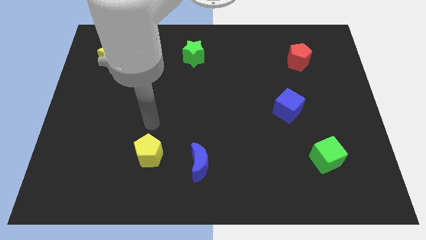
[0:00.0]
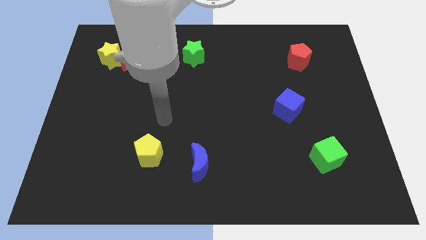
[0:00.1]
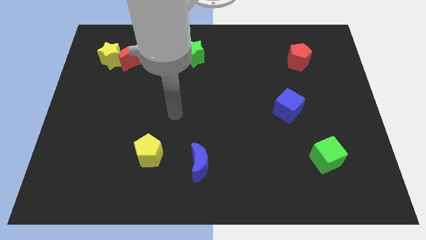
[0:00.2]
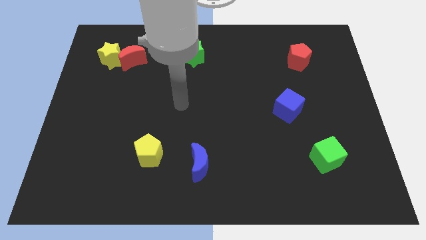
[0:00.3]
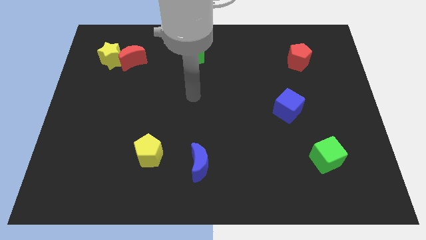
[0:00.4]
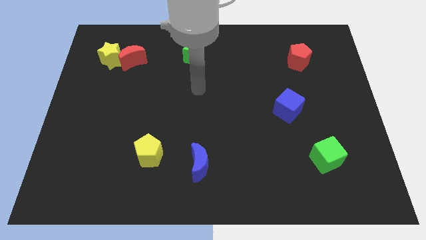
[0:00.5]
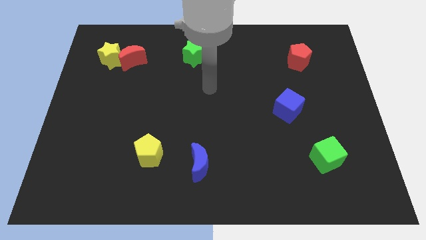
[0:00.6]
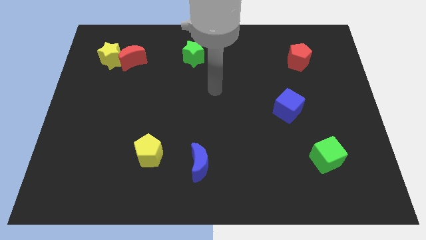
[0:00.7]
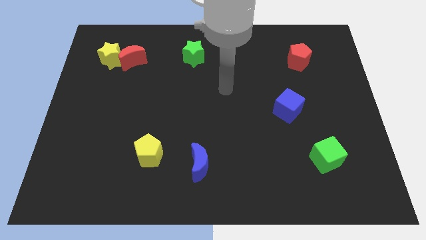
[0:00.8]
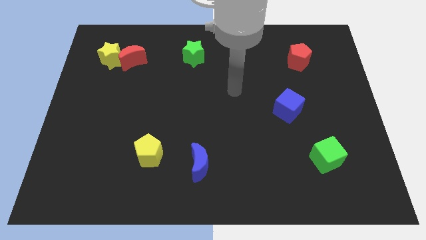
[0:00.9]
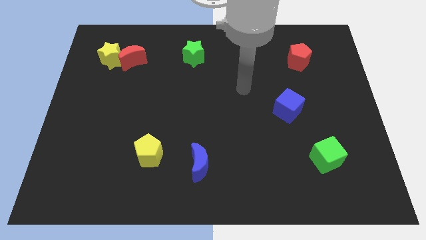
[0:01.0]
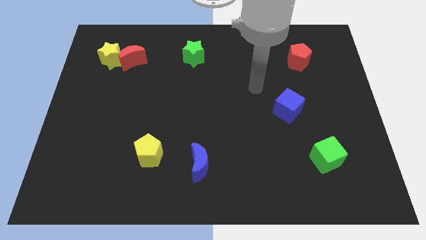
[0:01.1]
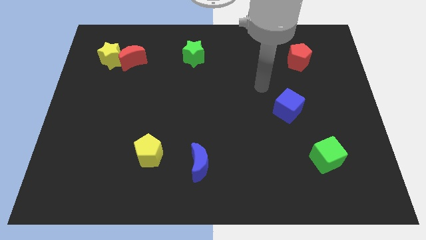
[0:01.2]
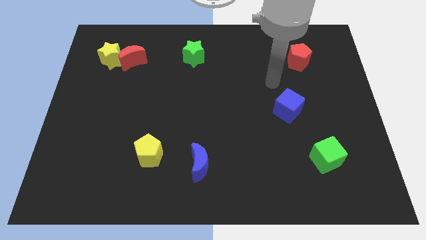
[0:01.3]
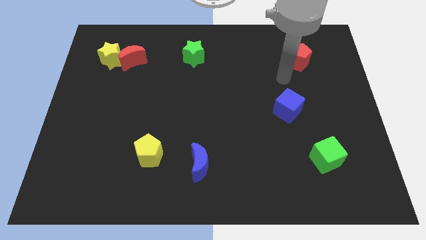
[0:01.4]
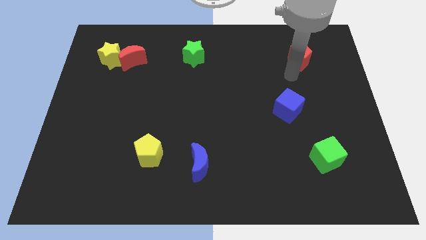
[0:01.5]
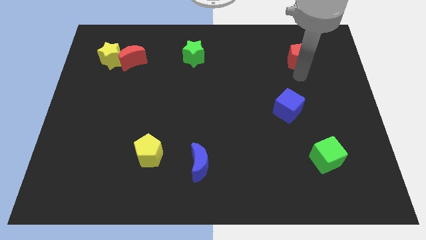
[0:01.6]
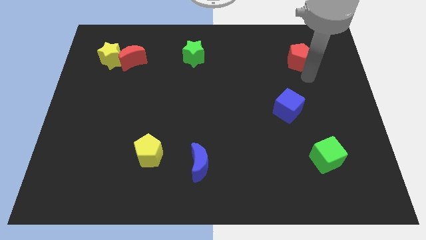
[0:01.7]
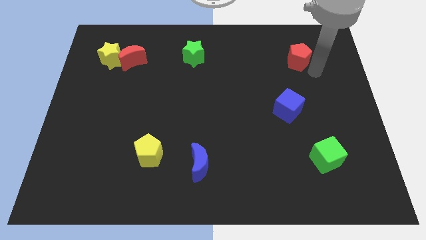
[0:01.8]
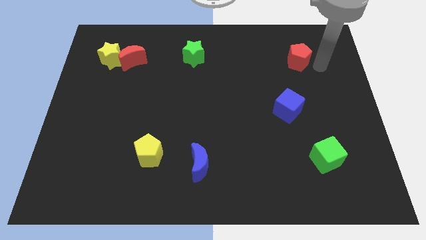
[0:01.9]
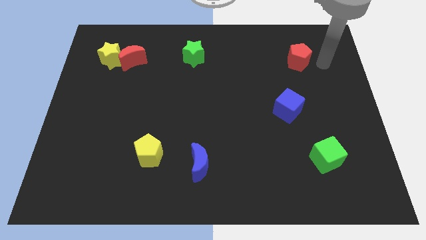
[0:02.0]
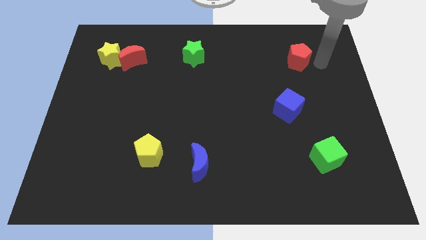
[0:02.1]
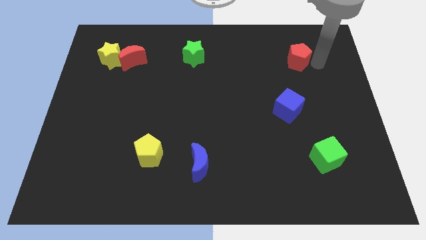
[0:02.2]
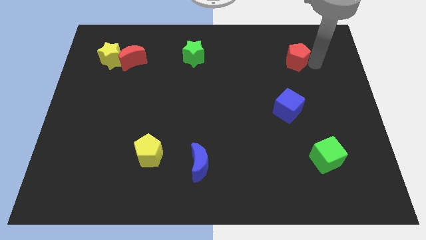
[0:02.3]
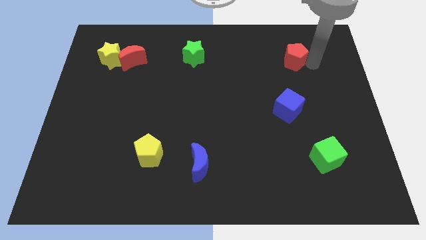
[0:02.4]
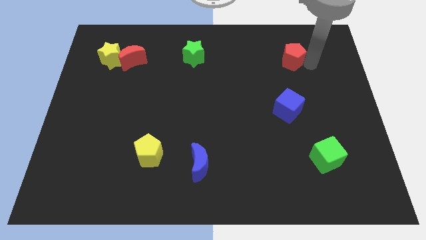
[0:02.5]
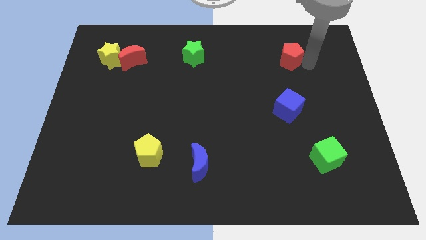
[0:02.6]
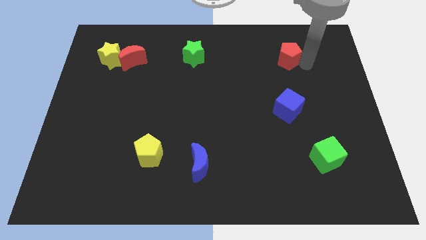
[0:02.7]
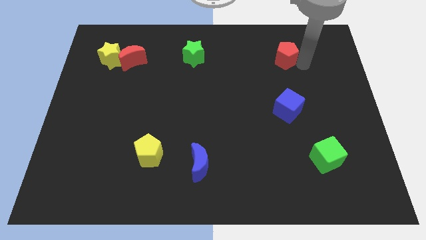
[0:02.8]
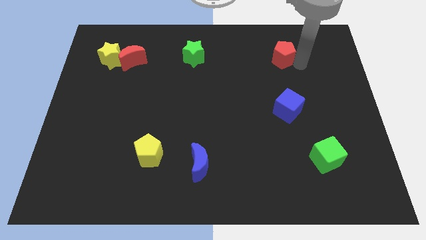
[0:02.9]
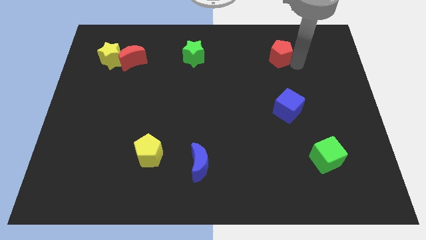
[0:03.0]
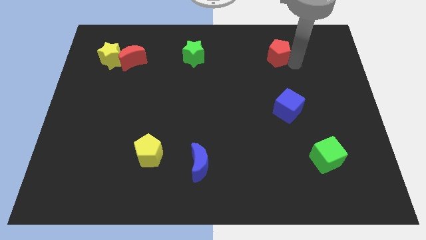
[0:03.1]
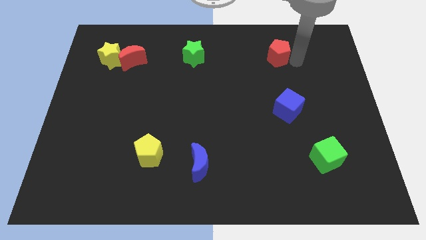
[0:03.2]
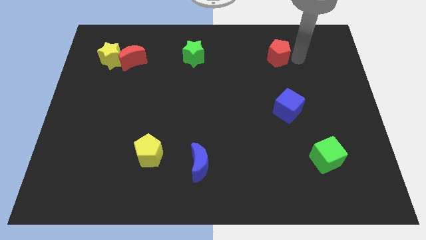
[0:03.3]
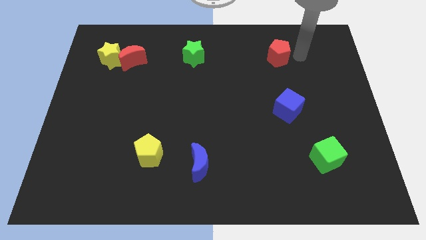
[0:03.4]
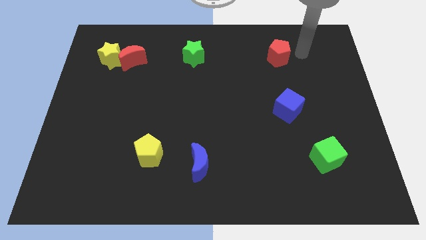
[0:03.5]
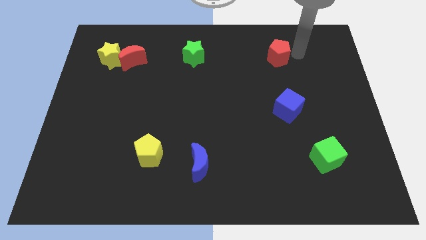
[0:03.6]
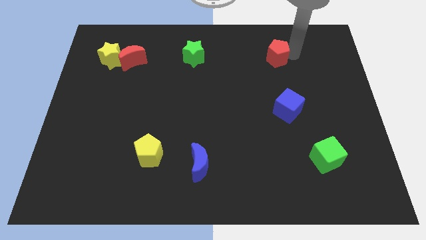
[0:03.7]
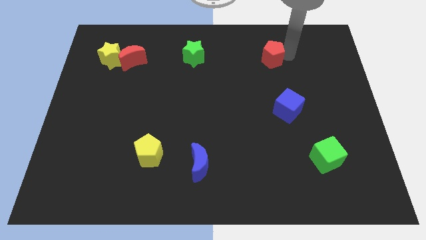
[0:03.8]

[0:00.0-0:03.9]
slightly push the red pentagon to the left

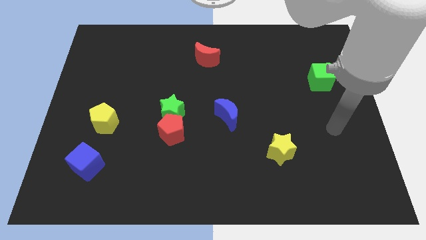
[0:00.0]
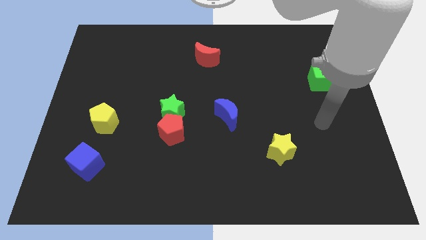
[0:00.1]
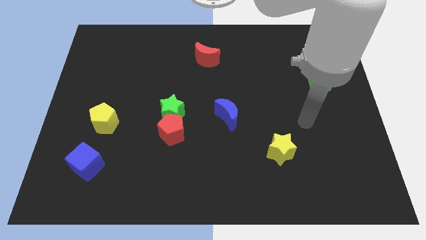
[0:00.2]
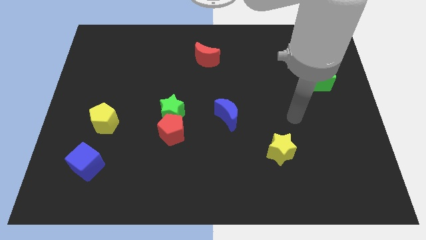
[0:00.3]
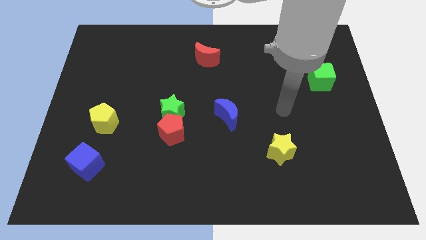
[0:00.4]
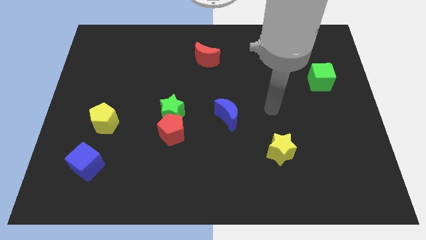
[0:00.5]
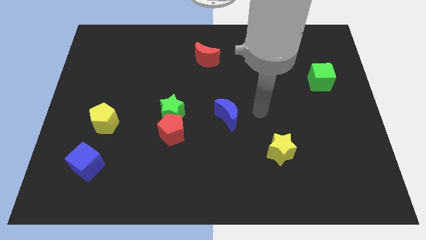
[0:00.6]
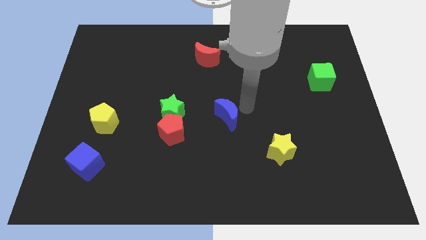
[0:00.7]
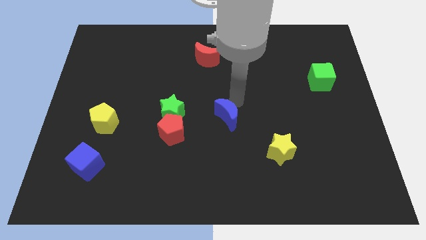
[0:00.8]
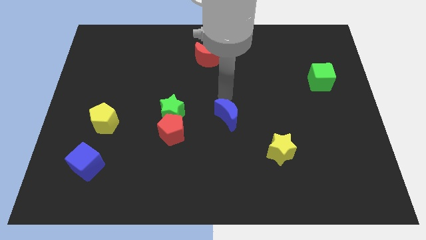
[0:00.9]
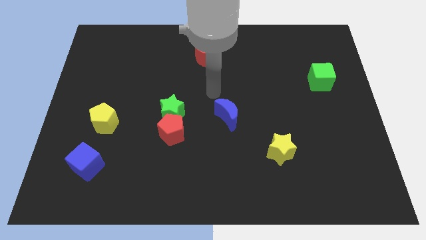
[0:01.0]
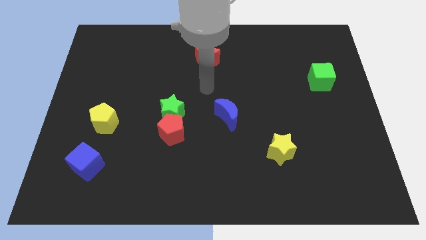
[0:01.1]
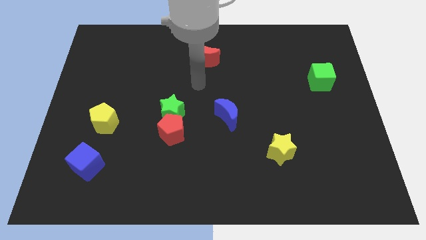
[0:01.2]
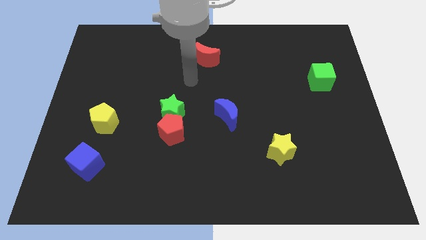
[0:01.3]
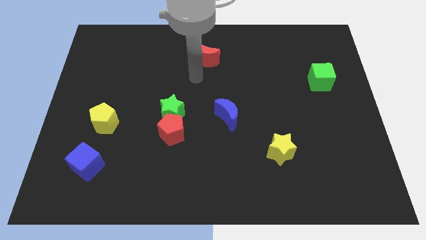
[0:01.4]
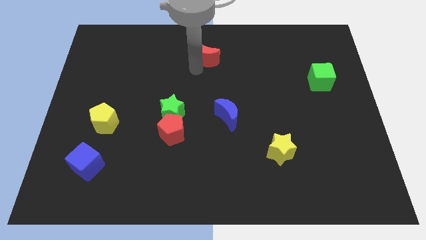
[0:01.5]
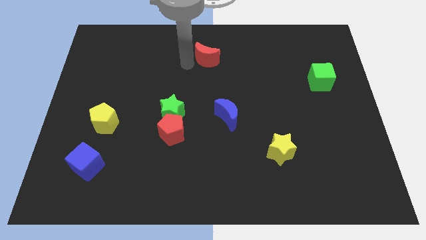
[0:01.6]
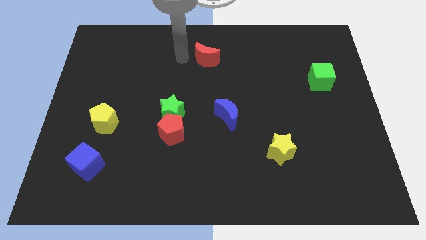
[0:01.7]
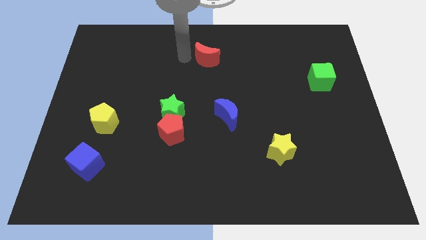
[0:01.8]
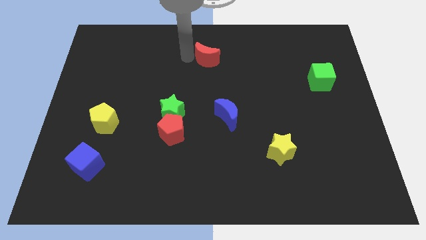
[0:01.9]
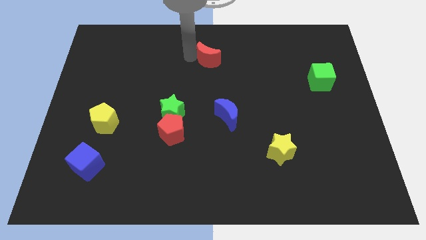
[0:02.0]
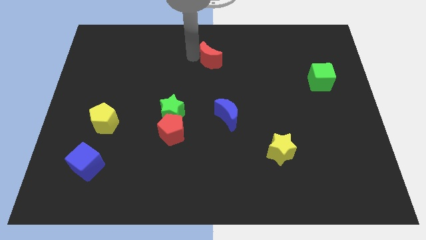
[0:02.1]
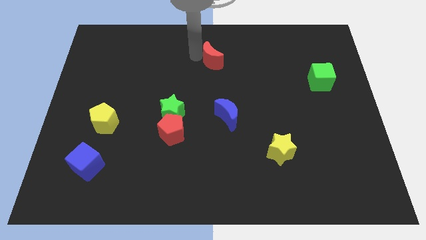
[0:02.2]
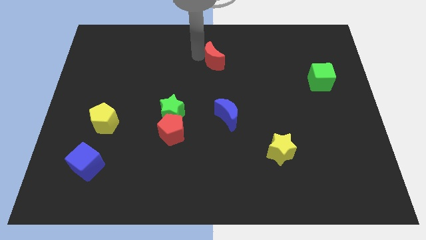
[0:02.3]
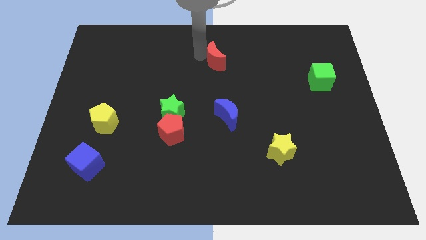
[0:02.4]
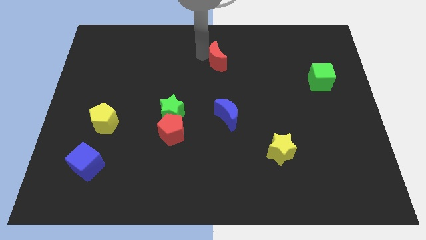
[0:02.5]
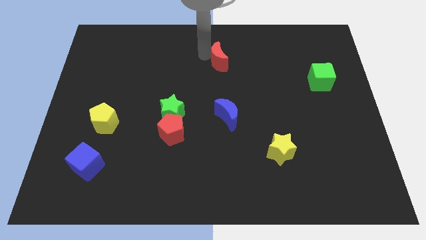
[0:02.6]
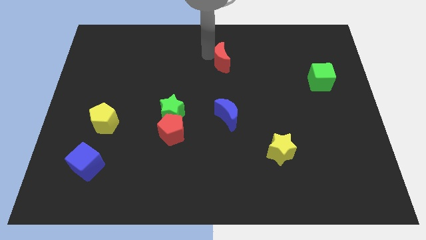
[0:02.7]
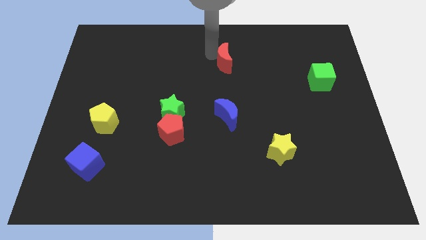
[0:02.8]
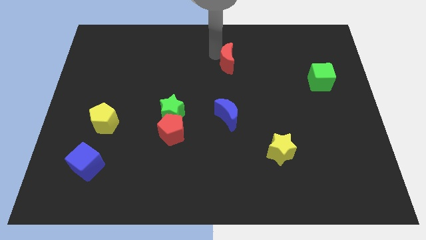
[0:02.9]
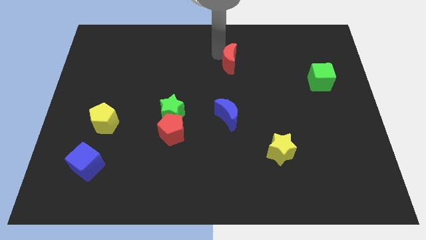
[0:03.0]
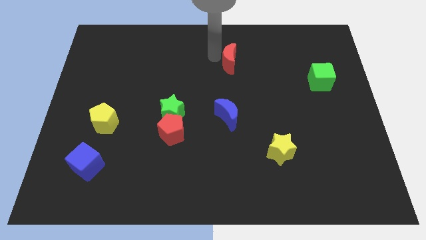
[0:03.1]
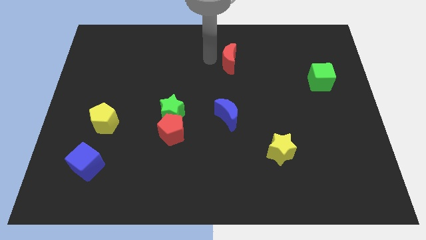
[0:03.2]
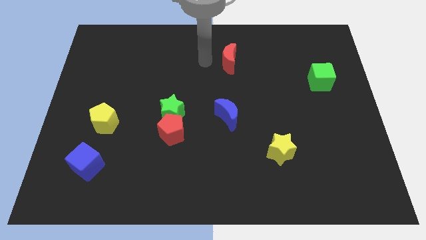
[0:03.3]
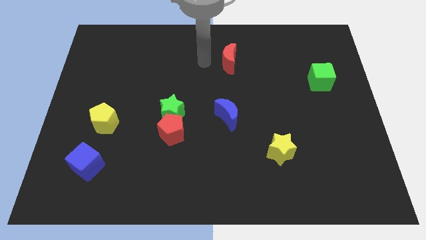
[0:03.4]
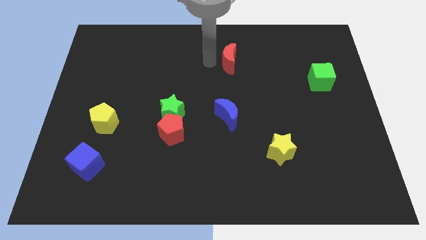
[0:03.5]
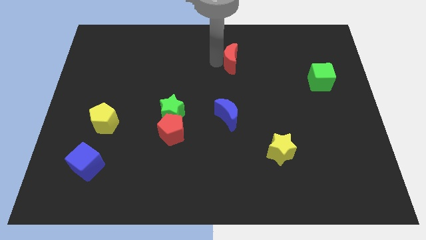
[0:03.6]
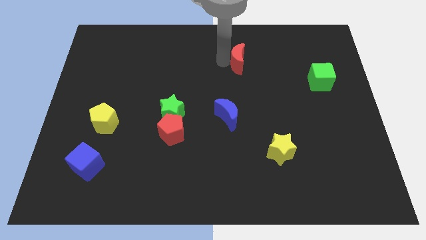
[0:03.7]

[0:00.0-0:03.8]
slightly push the red moon to the right

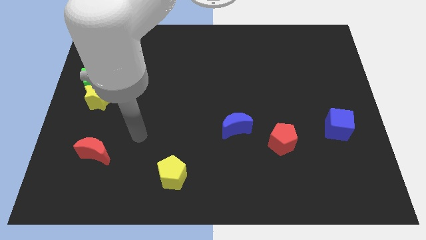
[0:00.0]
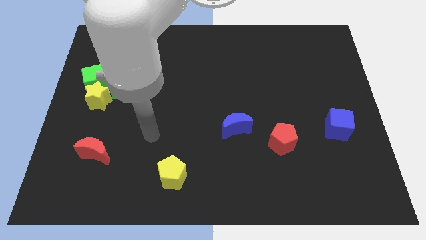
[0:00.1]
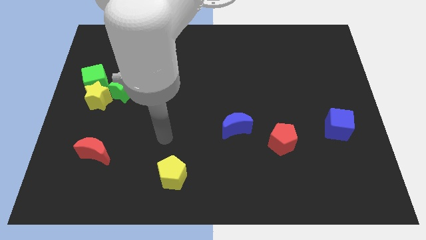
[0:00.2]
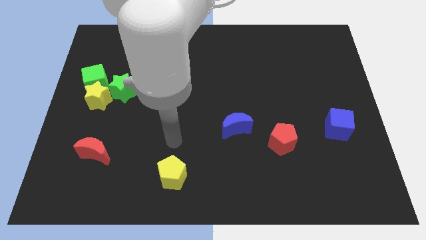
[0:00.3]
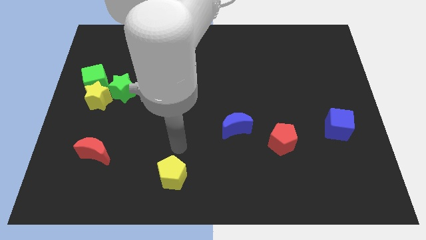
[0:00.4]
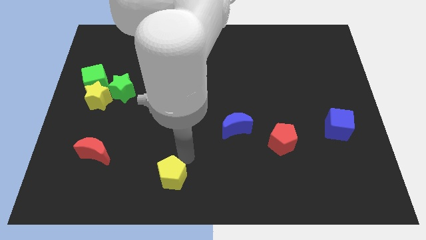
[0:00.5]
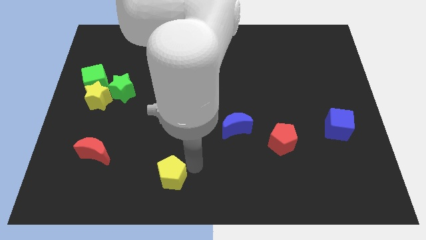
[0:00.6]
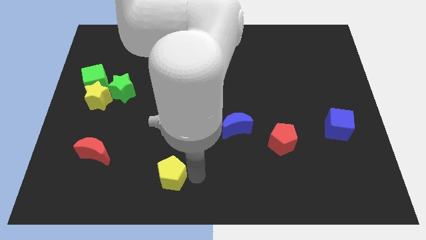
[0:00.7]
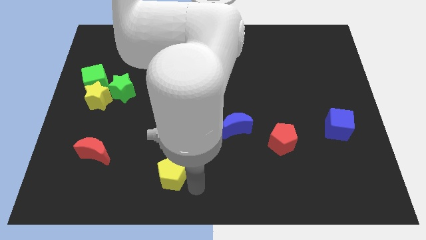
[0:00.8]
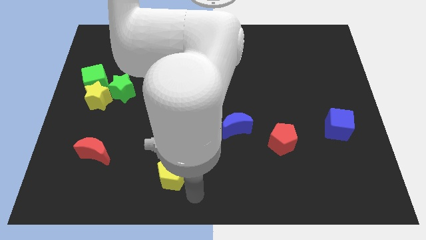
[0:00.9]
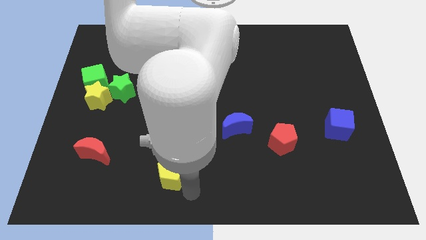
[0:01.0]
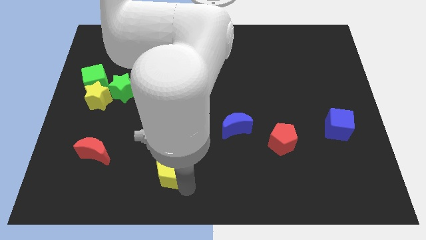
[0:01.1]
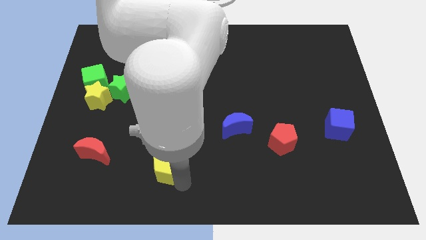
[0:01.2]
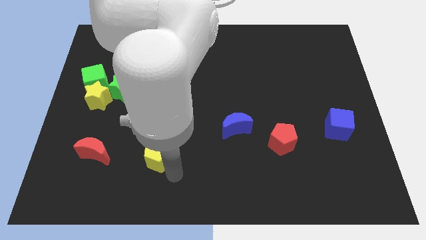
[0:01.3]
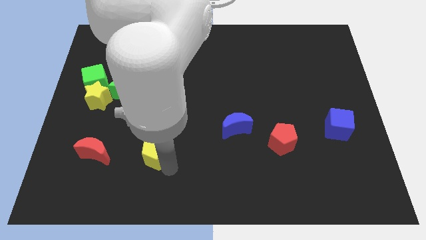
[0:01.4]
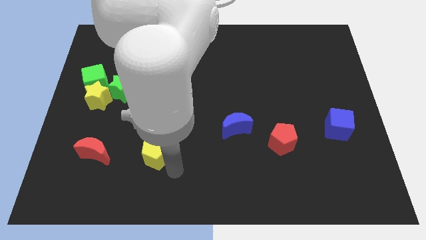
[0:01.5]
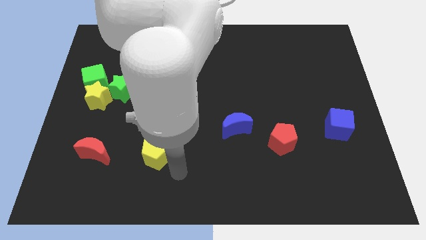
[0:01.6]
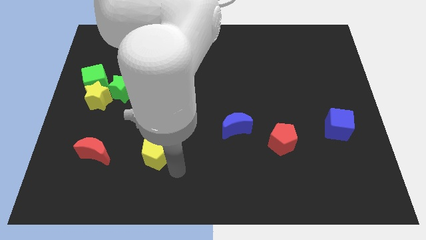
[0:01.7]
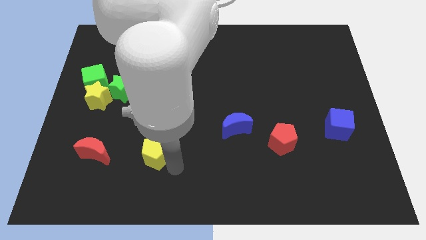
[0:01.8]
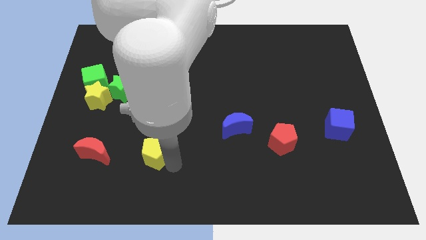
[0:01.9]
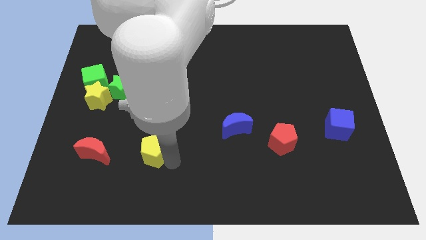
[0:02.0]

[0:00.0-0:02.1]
slightly move the yellow pentagon up and left
